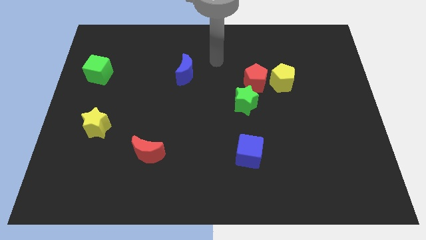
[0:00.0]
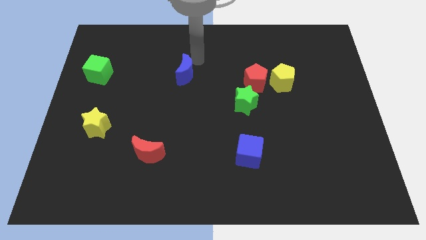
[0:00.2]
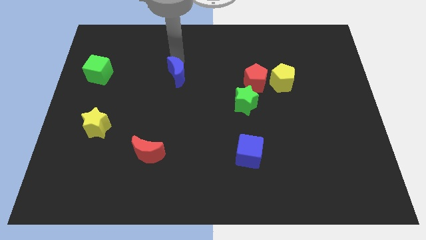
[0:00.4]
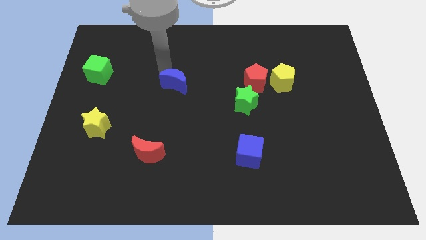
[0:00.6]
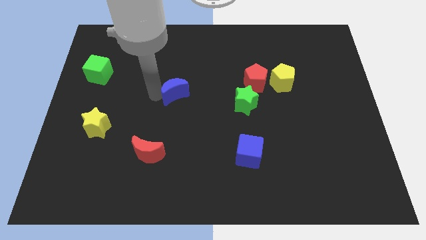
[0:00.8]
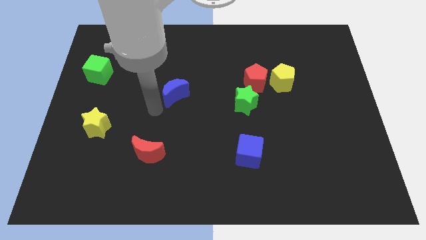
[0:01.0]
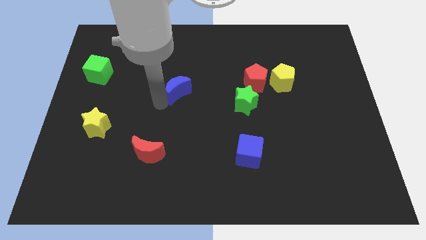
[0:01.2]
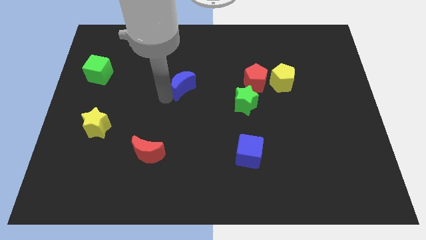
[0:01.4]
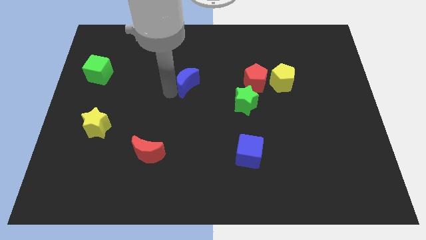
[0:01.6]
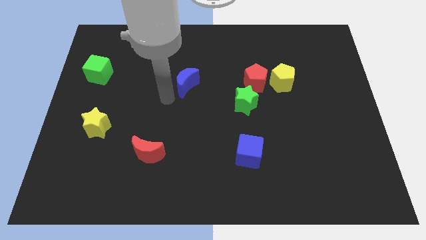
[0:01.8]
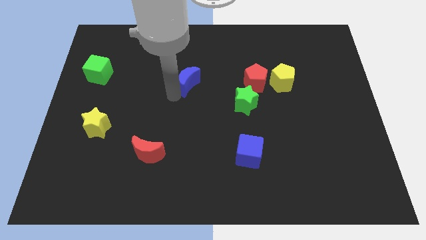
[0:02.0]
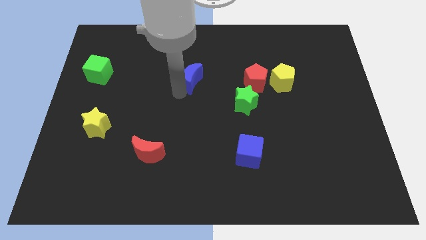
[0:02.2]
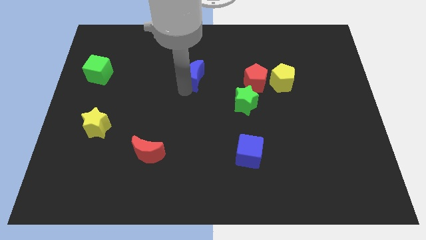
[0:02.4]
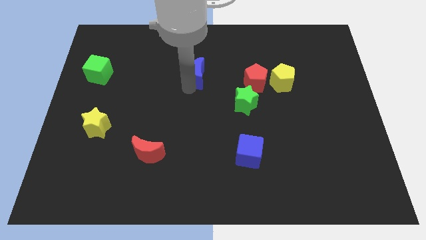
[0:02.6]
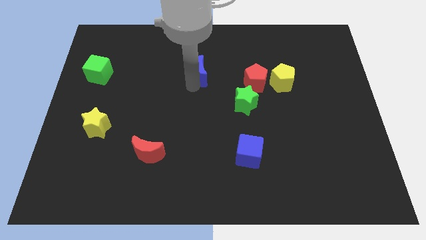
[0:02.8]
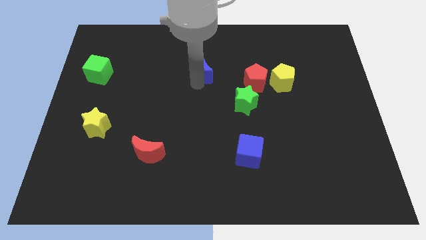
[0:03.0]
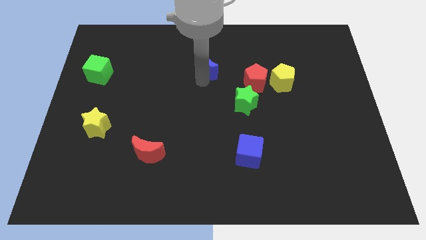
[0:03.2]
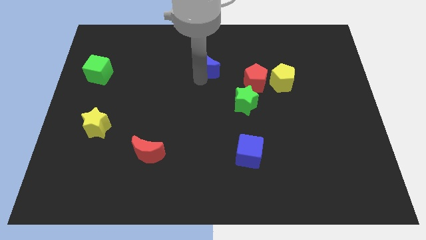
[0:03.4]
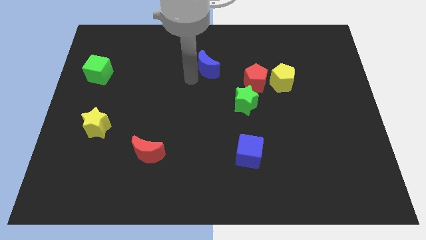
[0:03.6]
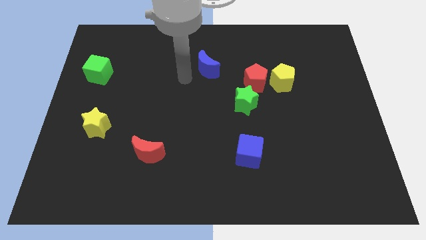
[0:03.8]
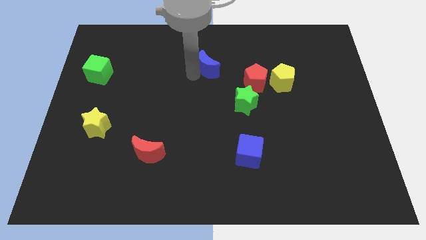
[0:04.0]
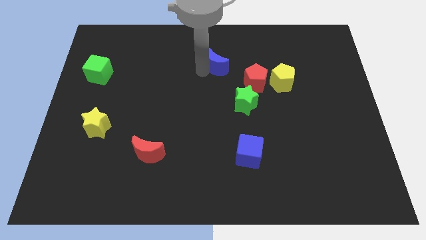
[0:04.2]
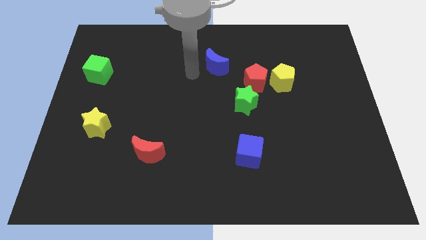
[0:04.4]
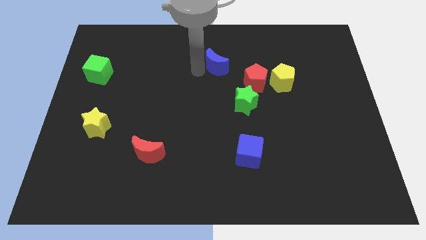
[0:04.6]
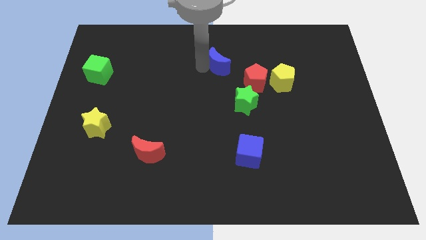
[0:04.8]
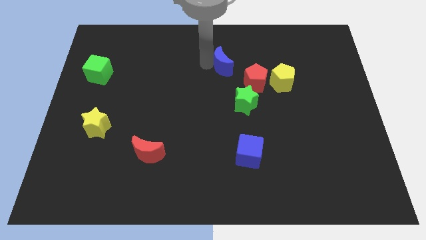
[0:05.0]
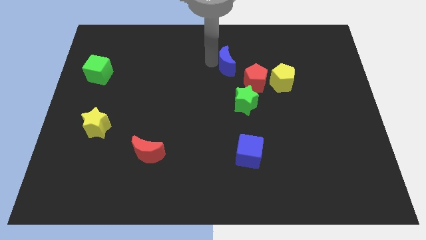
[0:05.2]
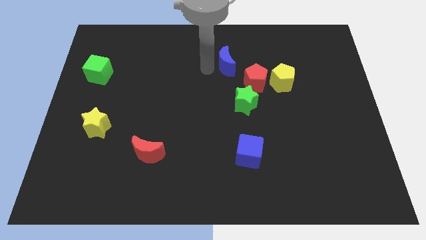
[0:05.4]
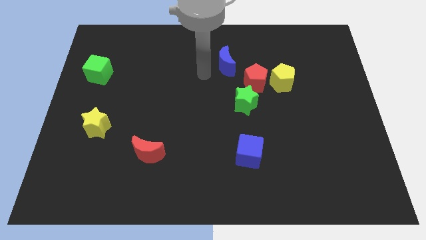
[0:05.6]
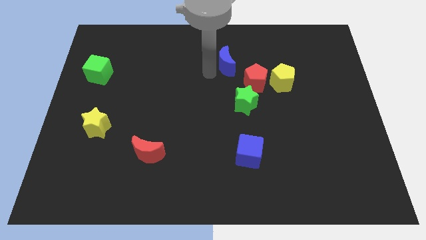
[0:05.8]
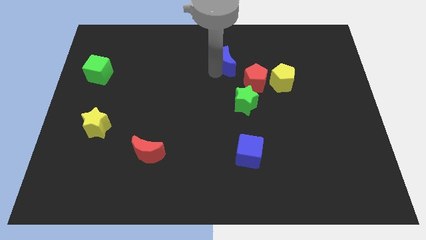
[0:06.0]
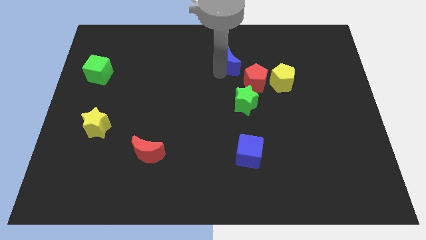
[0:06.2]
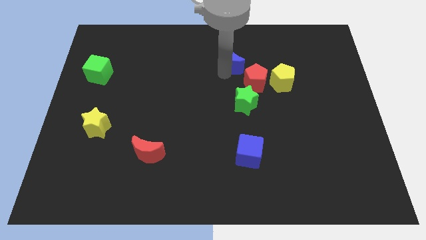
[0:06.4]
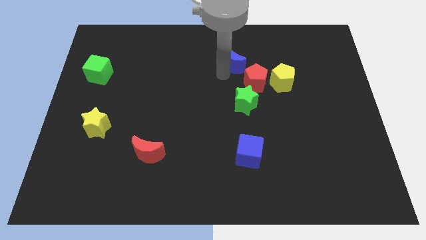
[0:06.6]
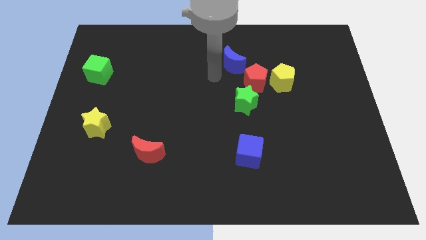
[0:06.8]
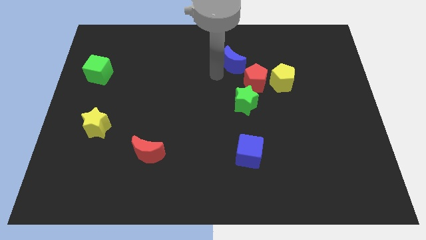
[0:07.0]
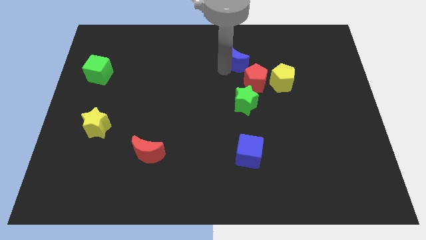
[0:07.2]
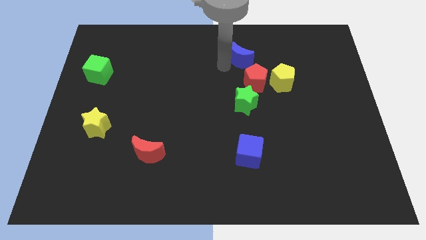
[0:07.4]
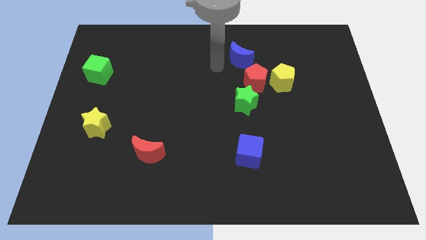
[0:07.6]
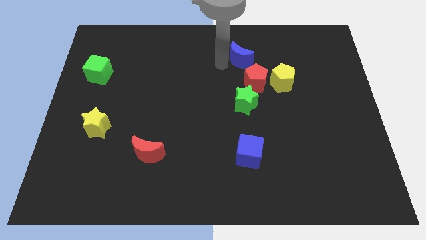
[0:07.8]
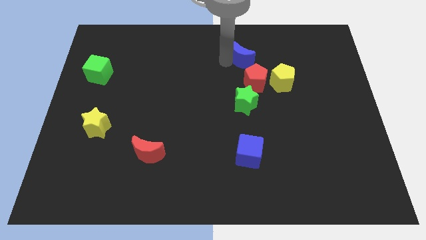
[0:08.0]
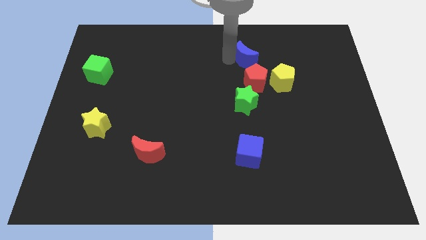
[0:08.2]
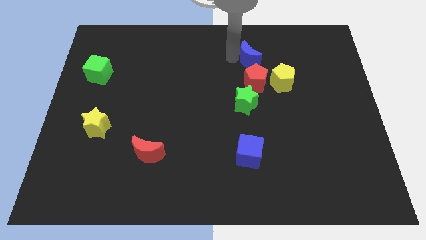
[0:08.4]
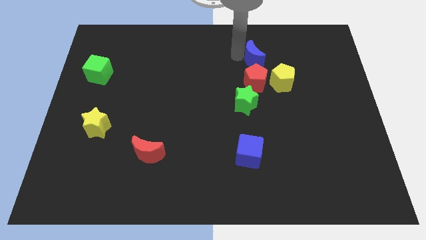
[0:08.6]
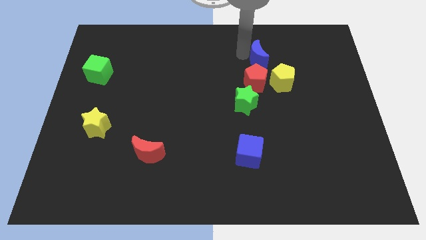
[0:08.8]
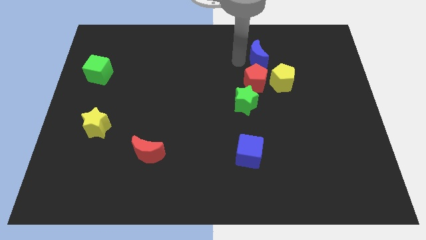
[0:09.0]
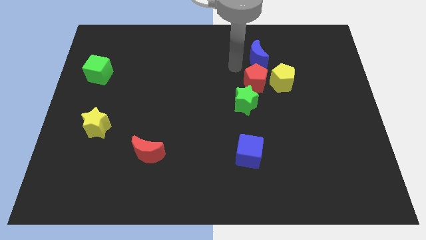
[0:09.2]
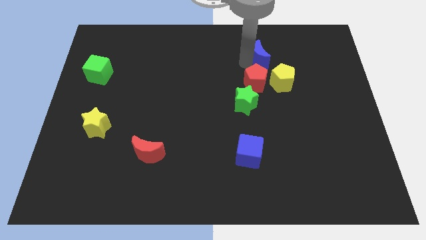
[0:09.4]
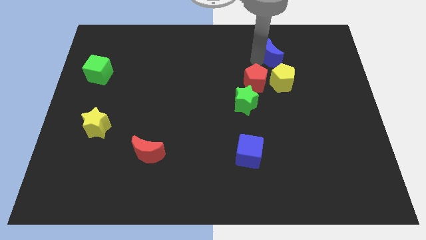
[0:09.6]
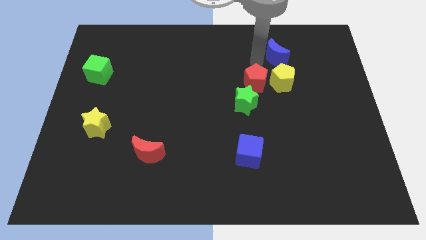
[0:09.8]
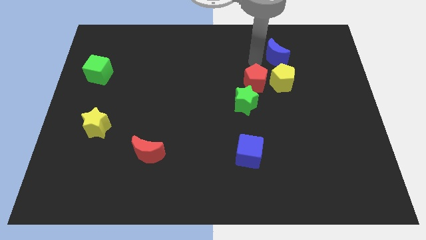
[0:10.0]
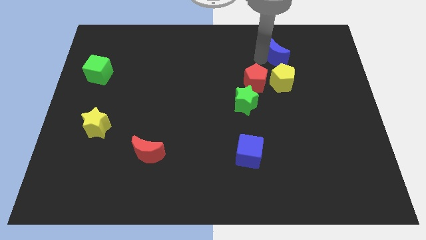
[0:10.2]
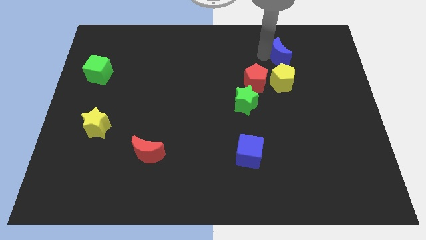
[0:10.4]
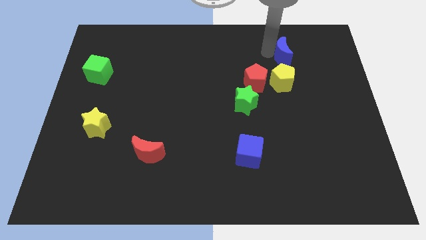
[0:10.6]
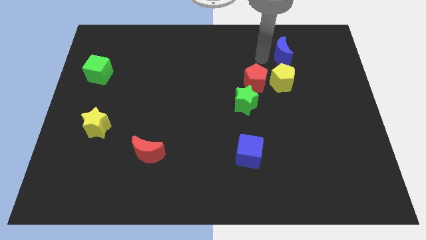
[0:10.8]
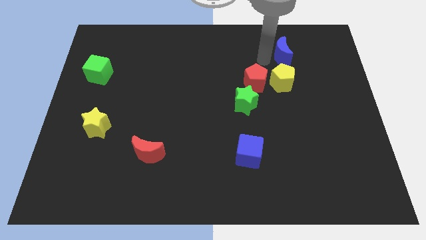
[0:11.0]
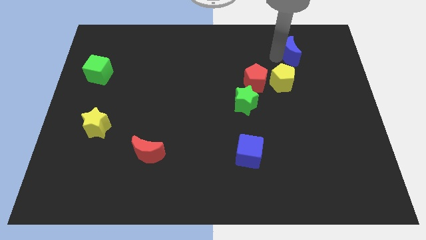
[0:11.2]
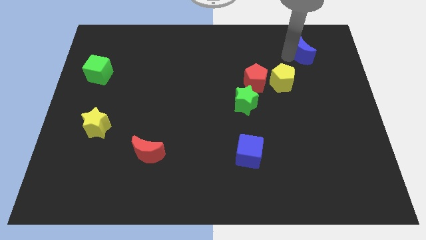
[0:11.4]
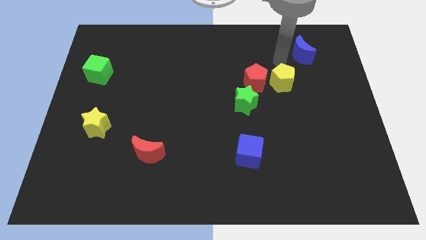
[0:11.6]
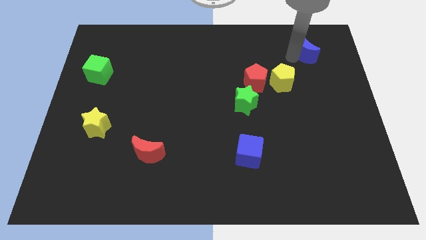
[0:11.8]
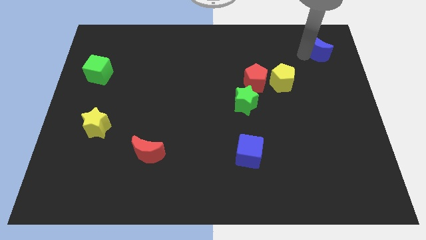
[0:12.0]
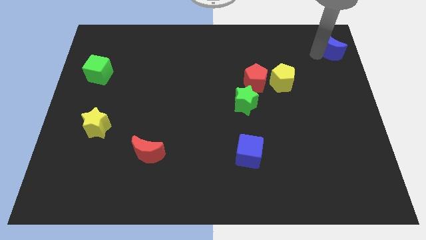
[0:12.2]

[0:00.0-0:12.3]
move the blue moon to the top right

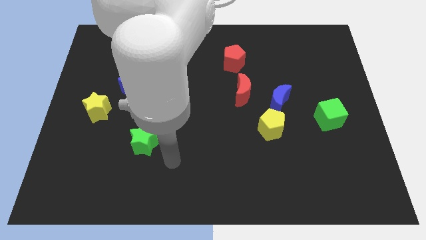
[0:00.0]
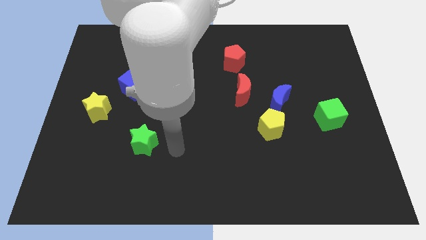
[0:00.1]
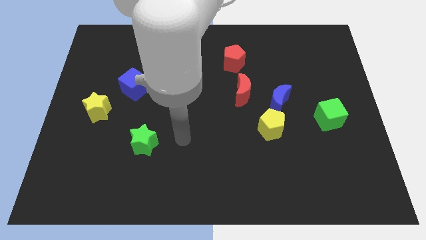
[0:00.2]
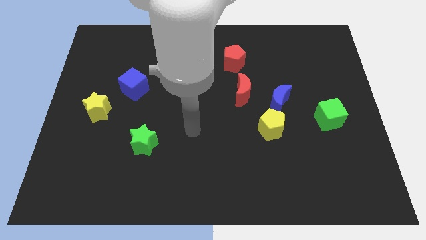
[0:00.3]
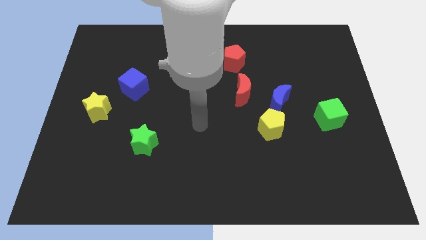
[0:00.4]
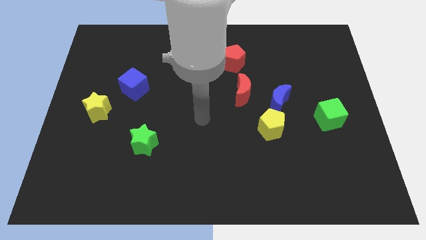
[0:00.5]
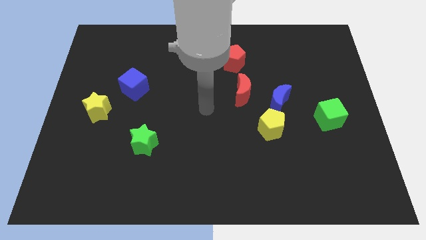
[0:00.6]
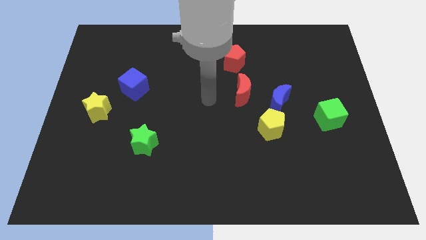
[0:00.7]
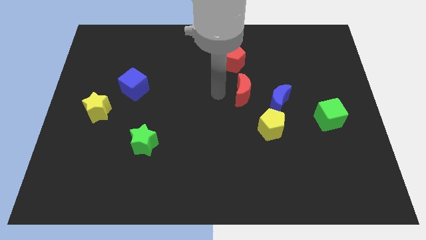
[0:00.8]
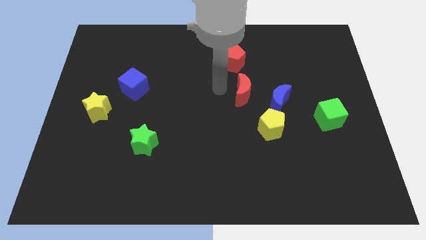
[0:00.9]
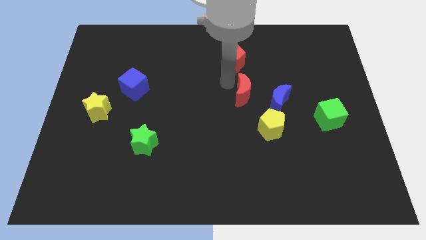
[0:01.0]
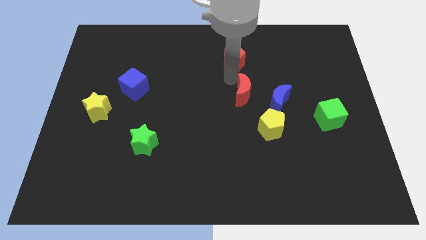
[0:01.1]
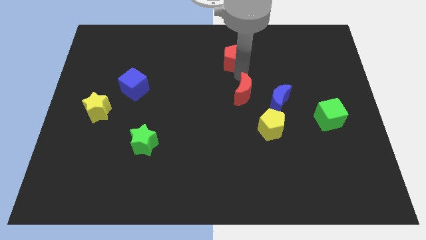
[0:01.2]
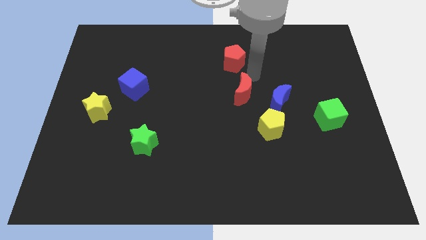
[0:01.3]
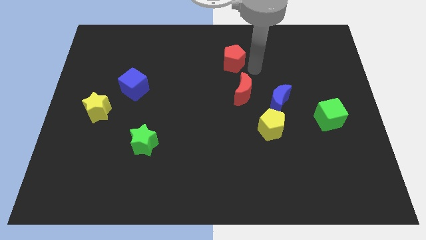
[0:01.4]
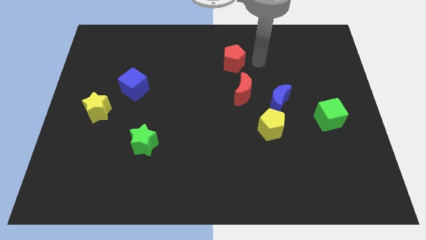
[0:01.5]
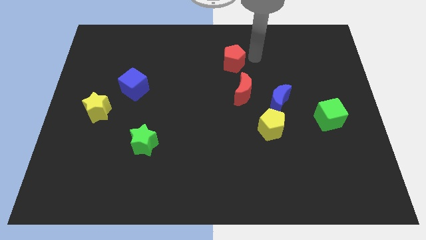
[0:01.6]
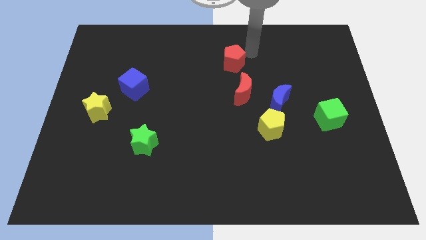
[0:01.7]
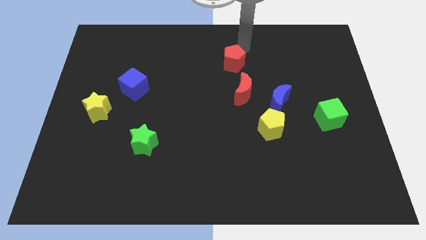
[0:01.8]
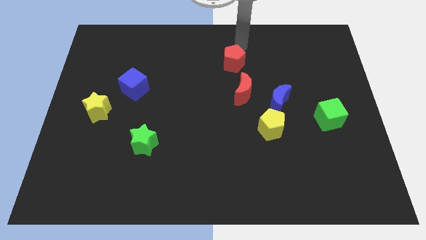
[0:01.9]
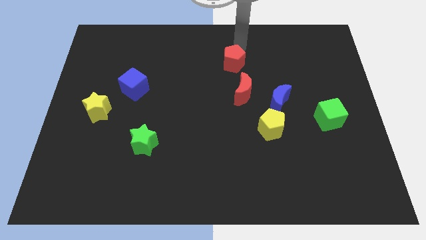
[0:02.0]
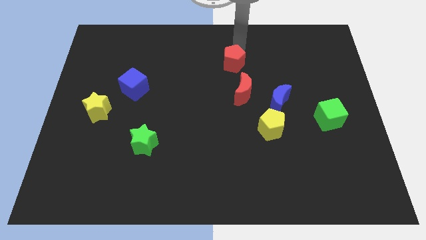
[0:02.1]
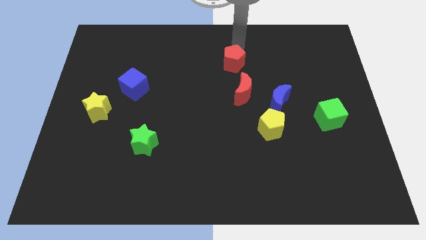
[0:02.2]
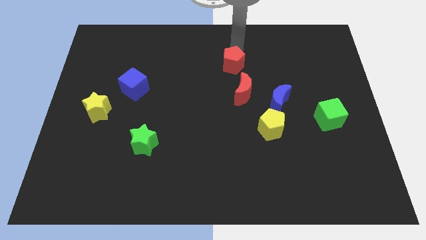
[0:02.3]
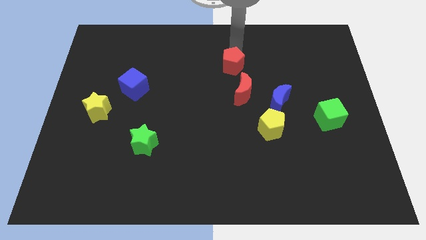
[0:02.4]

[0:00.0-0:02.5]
put the red pentagon to the center of the board
